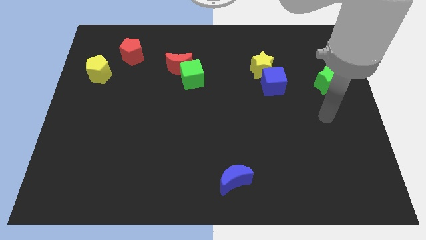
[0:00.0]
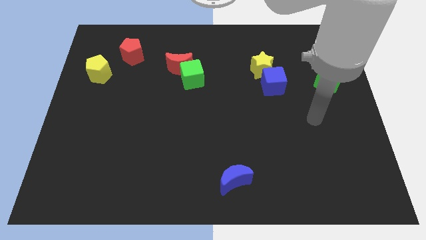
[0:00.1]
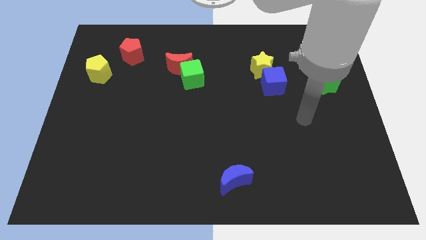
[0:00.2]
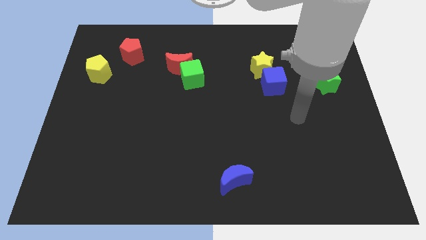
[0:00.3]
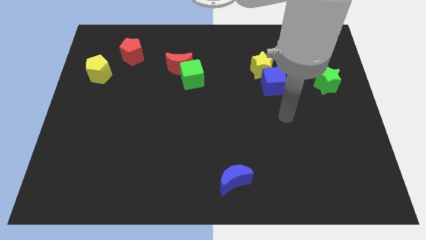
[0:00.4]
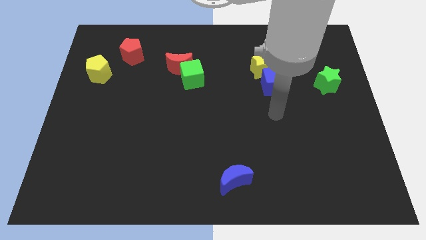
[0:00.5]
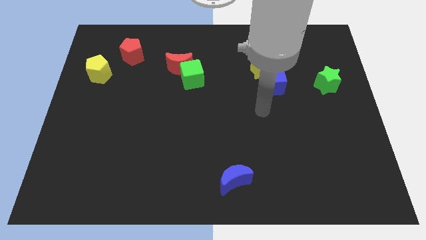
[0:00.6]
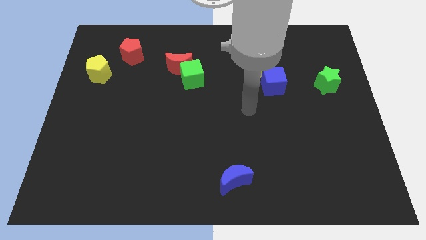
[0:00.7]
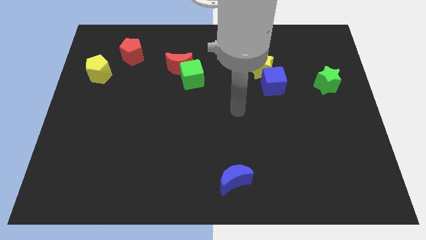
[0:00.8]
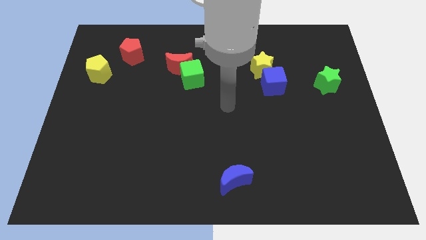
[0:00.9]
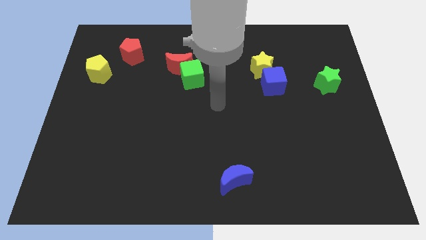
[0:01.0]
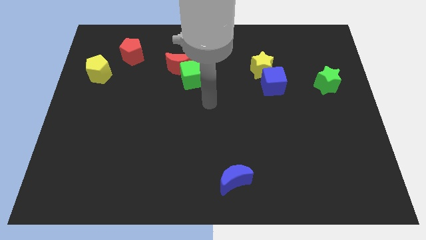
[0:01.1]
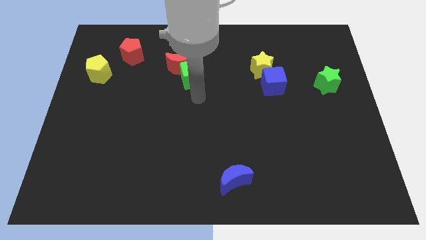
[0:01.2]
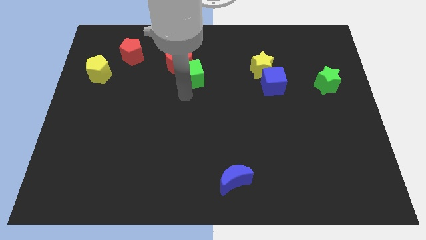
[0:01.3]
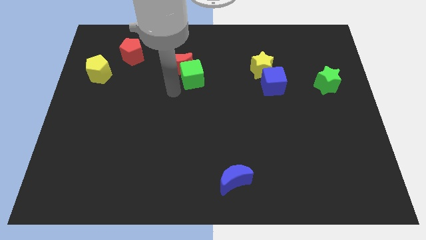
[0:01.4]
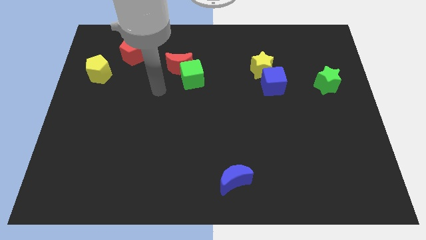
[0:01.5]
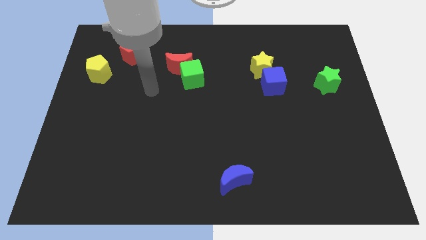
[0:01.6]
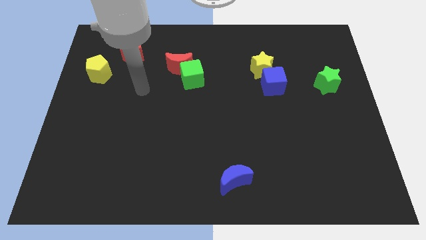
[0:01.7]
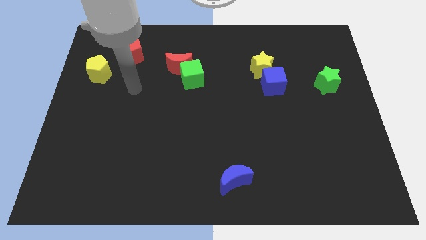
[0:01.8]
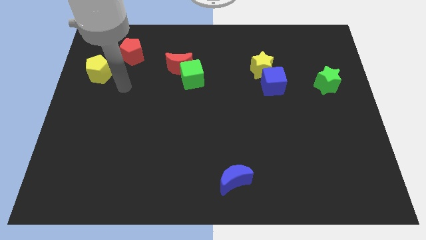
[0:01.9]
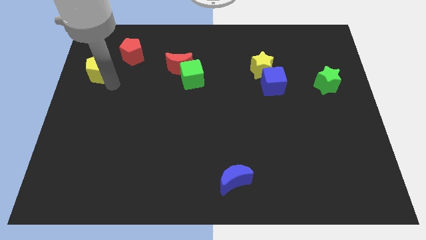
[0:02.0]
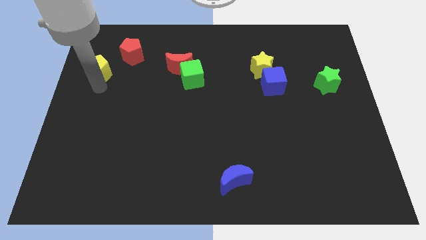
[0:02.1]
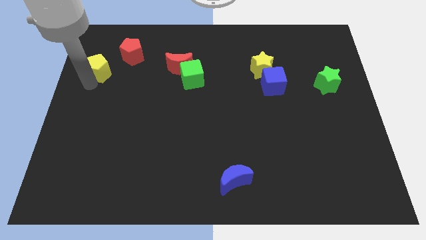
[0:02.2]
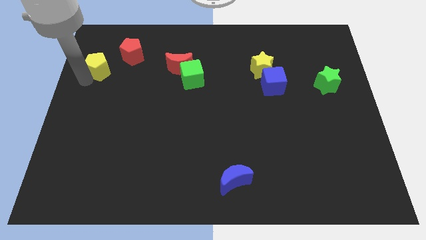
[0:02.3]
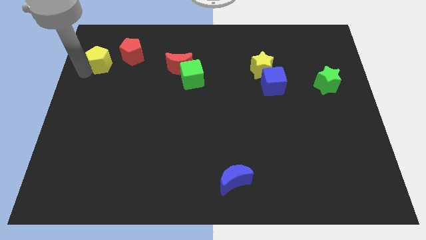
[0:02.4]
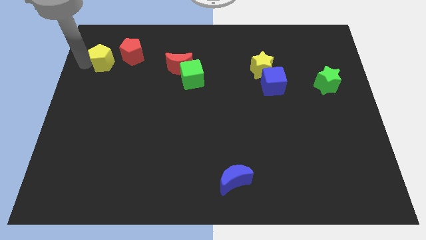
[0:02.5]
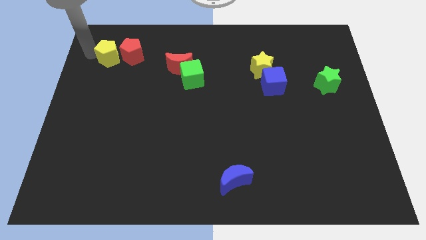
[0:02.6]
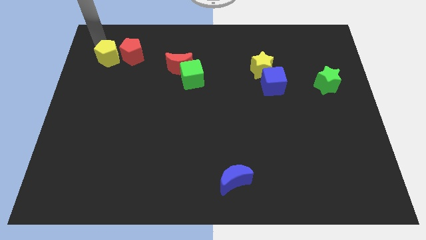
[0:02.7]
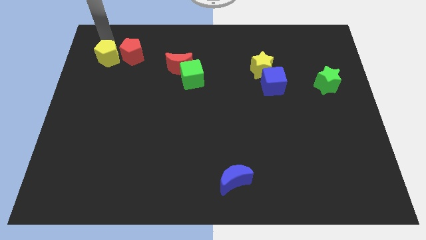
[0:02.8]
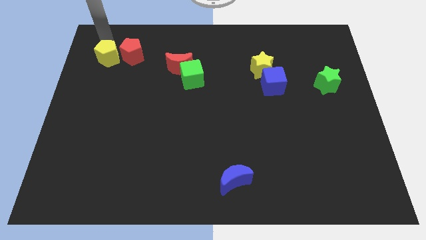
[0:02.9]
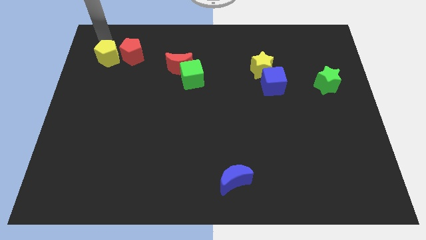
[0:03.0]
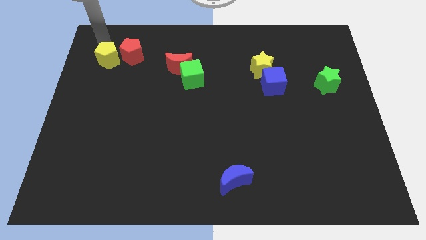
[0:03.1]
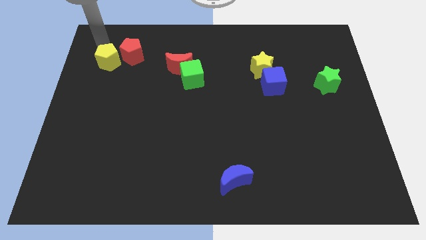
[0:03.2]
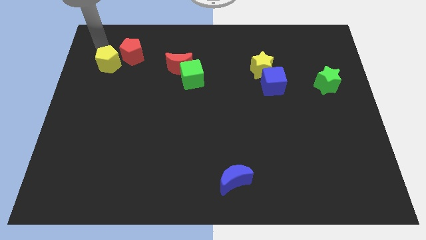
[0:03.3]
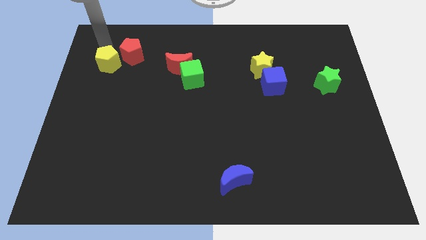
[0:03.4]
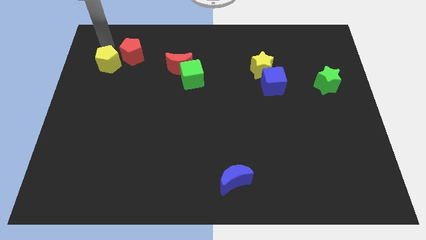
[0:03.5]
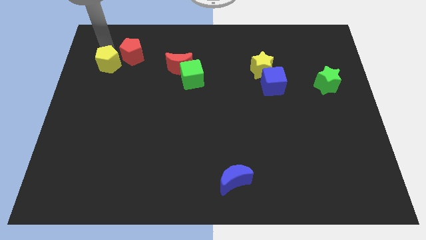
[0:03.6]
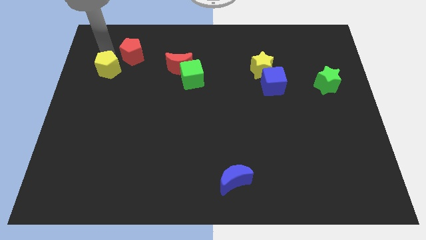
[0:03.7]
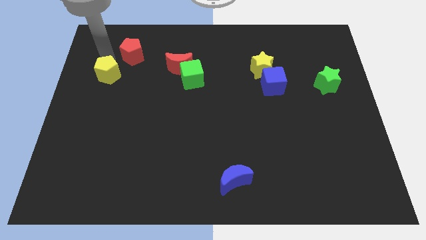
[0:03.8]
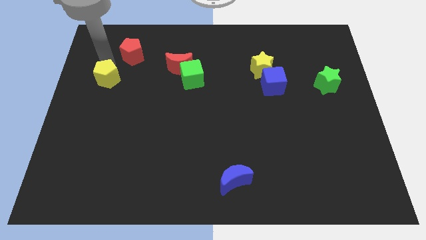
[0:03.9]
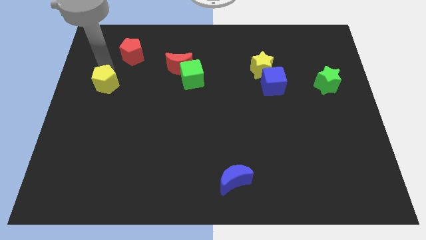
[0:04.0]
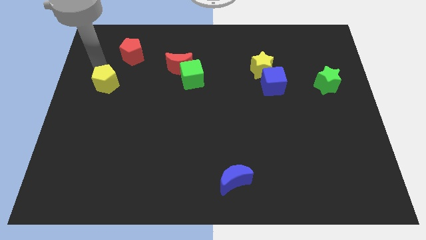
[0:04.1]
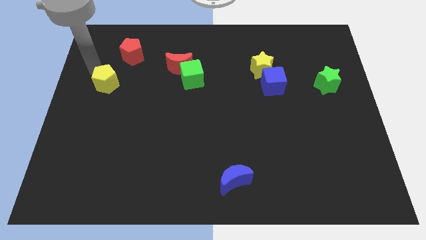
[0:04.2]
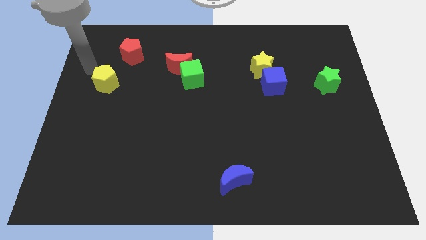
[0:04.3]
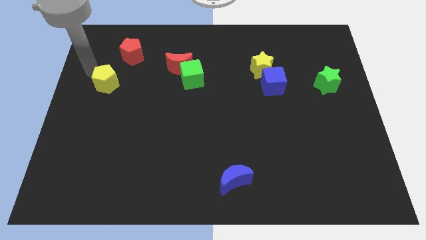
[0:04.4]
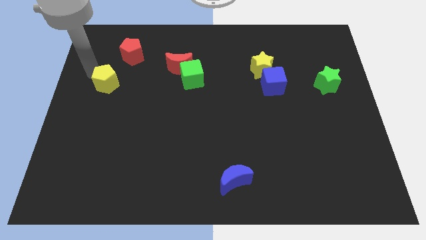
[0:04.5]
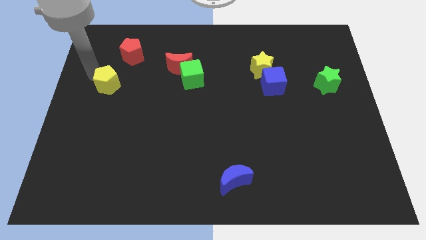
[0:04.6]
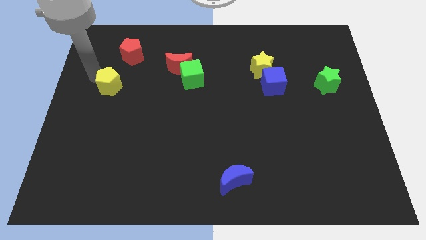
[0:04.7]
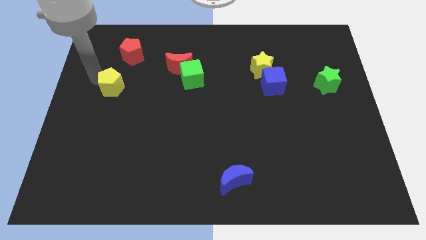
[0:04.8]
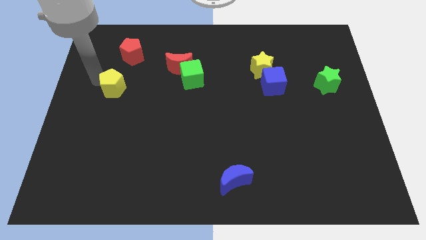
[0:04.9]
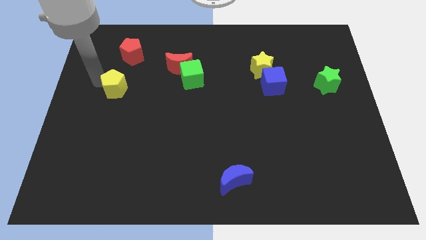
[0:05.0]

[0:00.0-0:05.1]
slide the yellow pentagon down and right diagonally a bit

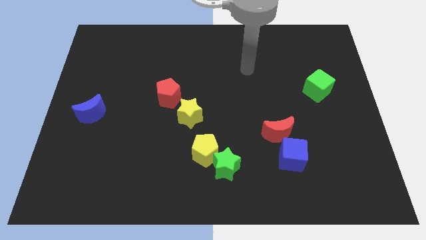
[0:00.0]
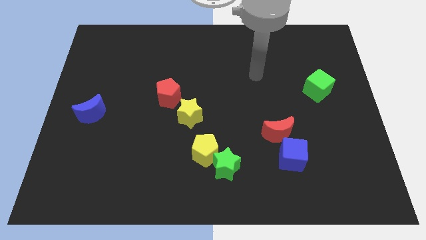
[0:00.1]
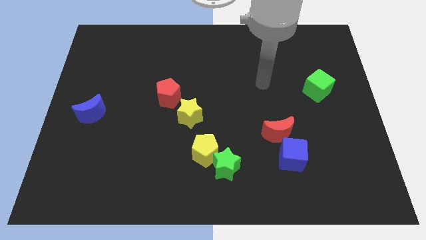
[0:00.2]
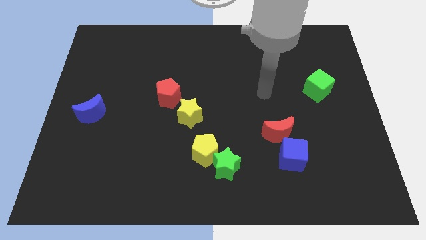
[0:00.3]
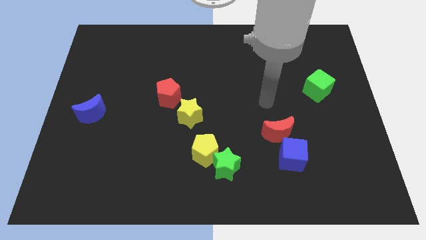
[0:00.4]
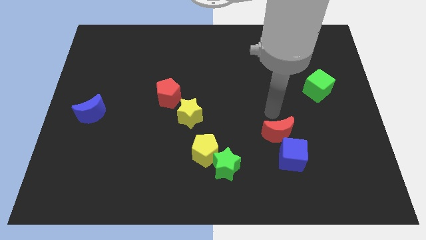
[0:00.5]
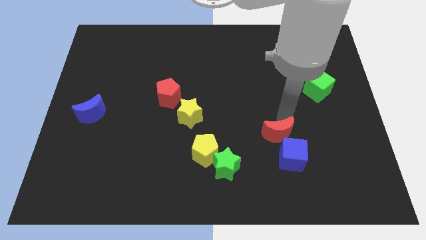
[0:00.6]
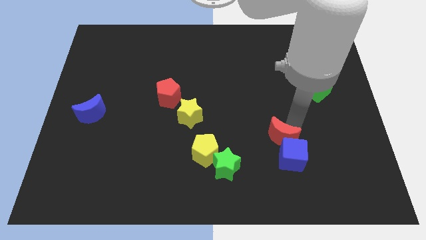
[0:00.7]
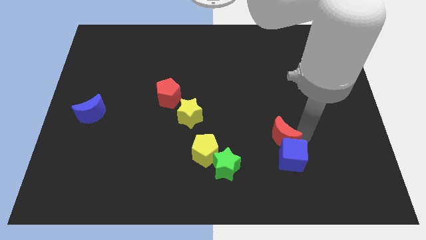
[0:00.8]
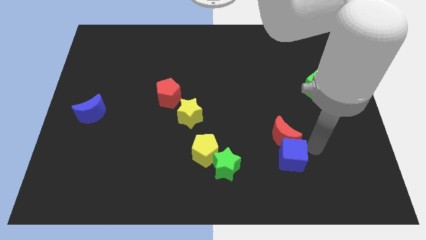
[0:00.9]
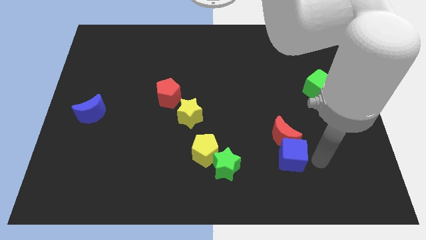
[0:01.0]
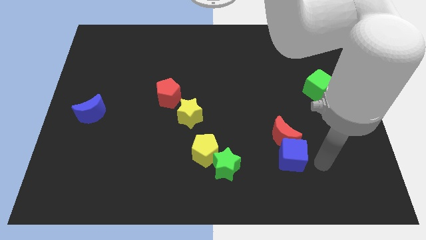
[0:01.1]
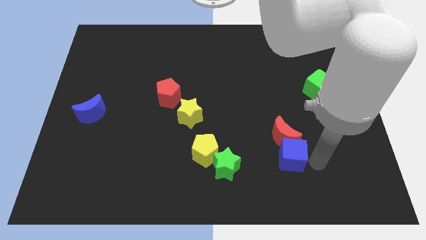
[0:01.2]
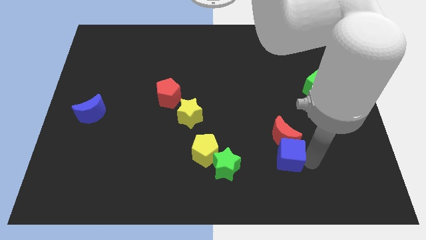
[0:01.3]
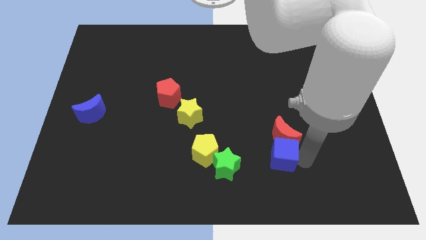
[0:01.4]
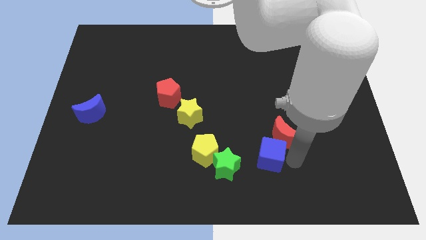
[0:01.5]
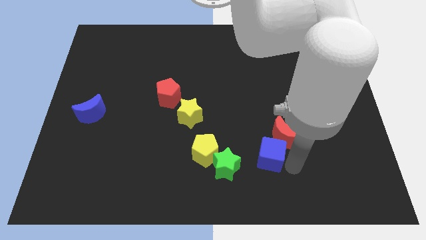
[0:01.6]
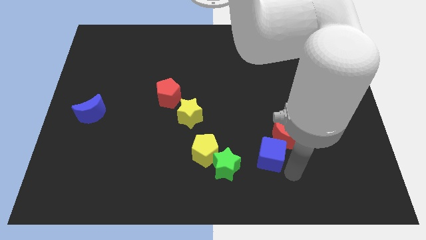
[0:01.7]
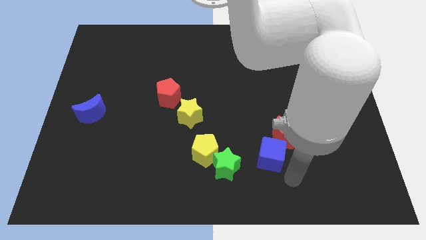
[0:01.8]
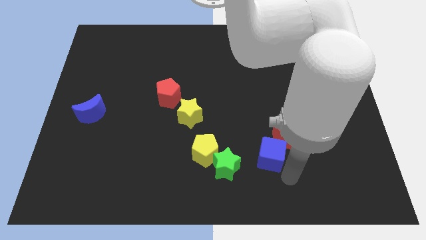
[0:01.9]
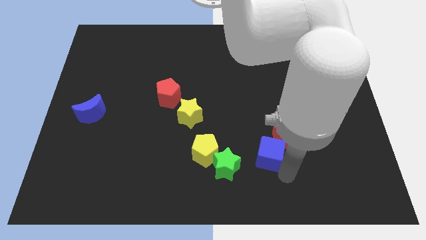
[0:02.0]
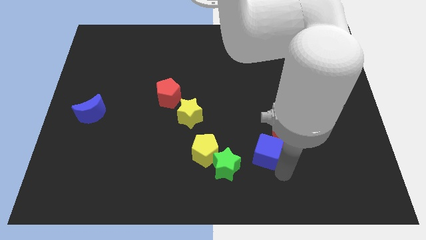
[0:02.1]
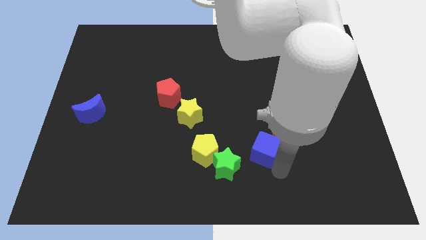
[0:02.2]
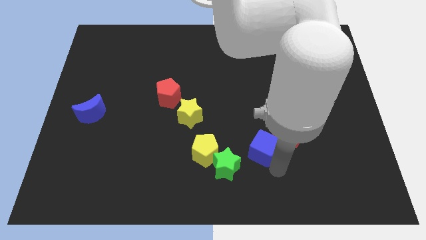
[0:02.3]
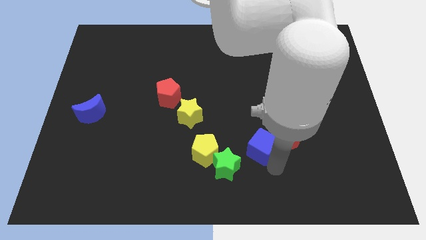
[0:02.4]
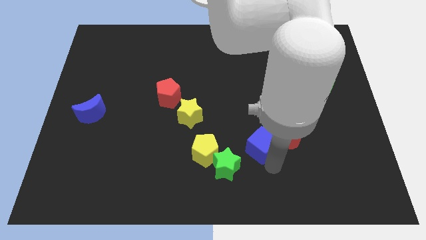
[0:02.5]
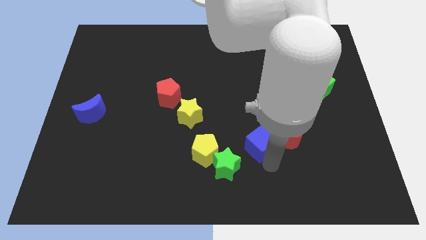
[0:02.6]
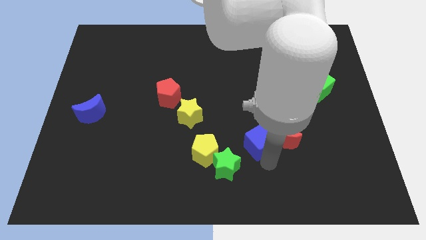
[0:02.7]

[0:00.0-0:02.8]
push the blue cube somewhat upwards and to the left diagonally

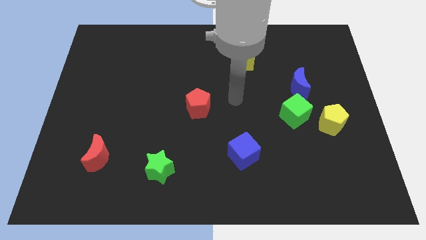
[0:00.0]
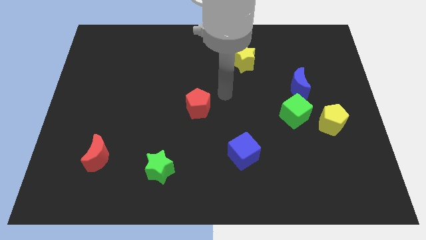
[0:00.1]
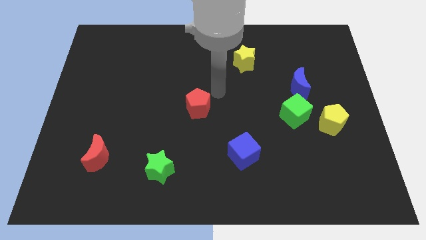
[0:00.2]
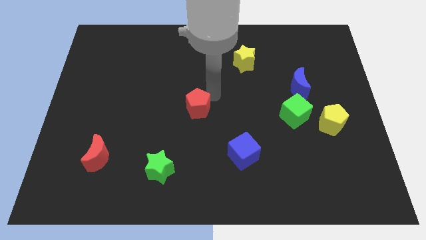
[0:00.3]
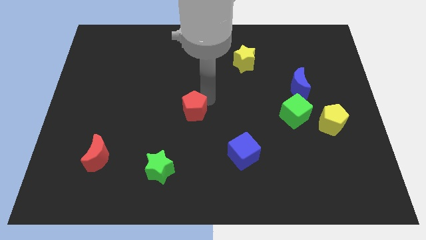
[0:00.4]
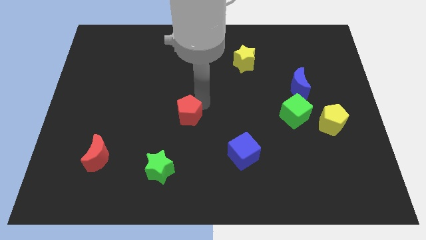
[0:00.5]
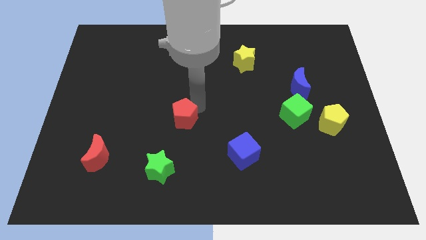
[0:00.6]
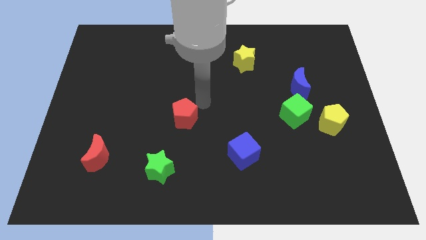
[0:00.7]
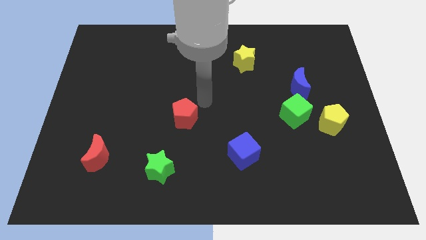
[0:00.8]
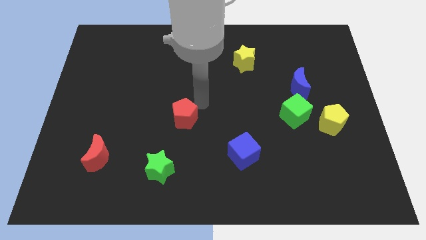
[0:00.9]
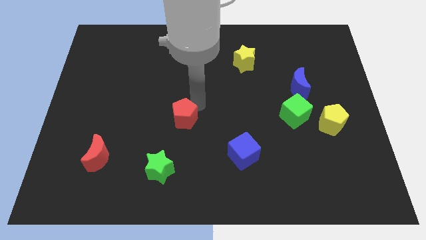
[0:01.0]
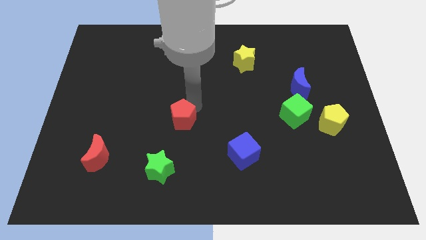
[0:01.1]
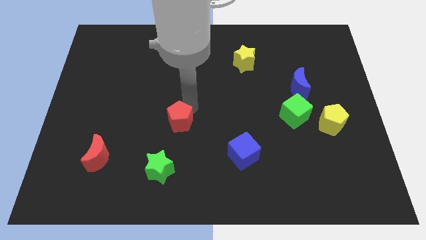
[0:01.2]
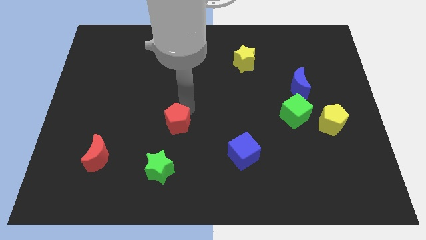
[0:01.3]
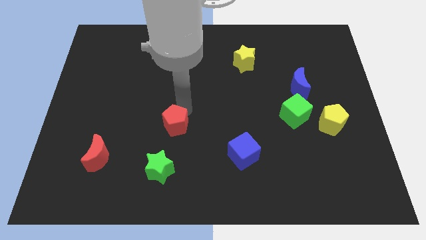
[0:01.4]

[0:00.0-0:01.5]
slightly push the red pentagon down and left
